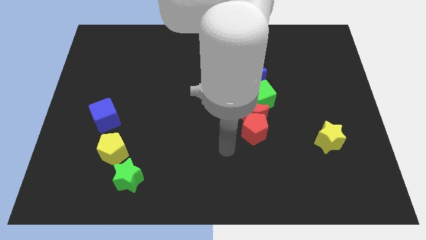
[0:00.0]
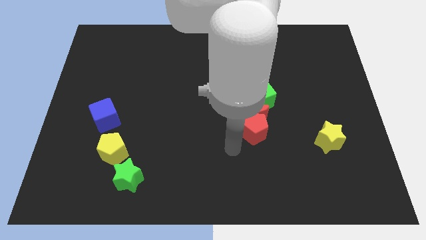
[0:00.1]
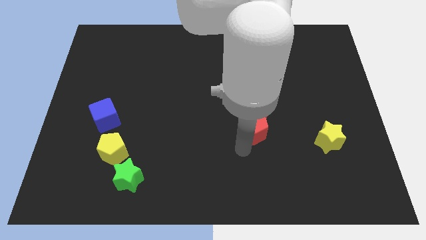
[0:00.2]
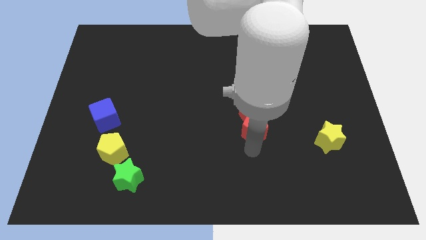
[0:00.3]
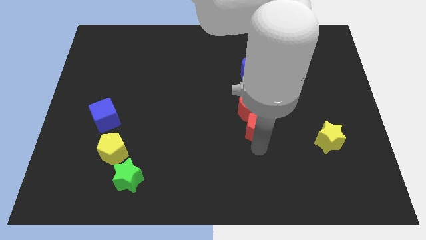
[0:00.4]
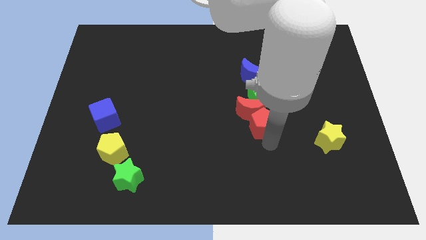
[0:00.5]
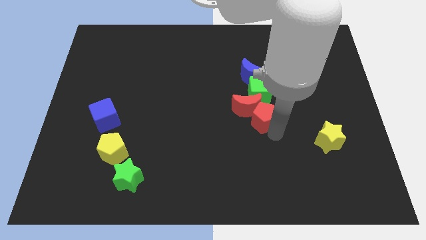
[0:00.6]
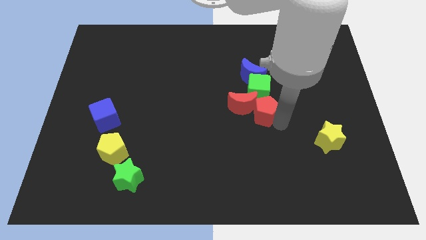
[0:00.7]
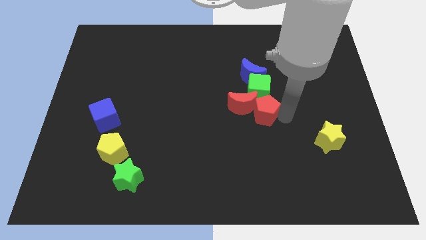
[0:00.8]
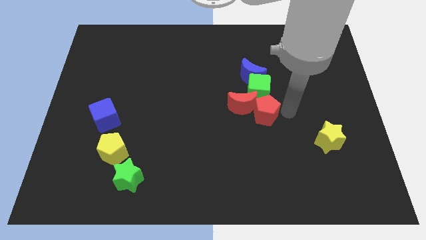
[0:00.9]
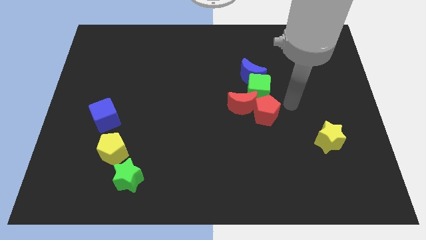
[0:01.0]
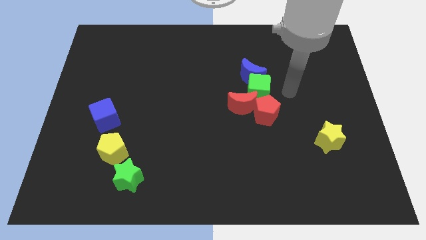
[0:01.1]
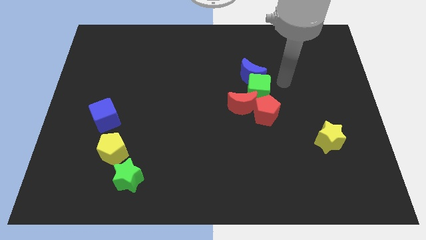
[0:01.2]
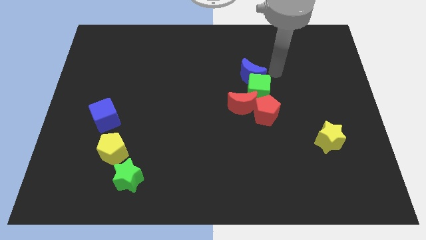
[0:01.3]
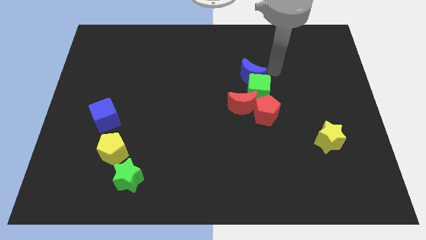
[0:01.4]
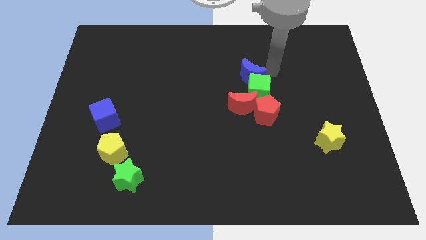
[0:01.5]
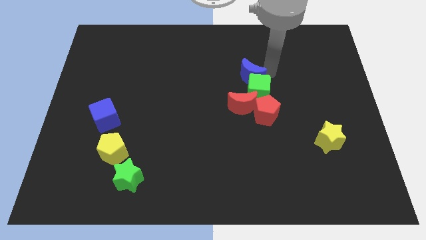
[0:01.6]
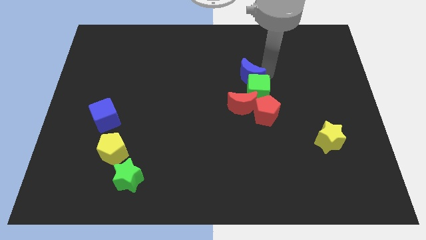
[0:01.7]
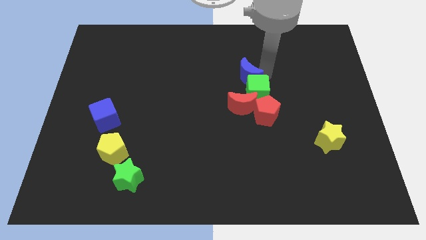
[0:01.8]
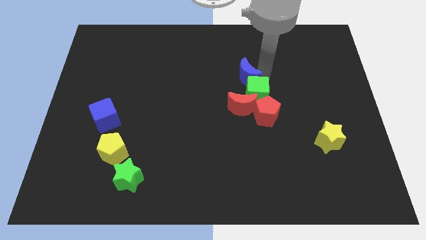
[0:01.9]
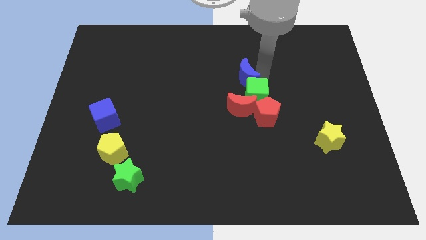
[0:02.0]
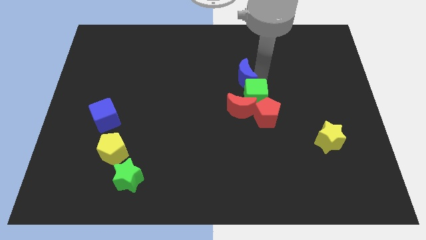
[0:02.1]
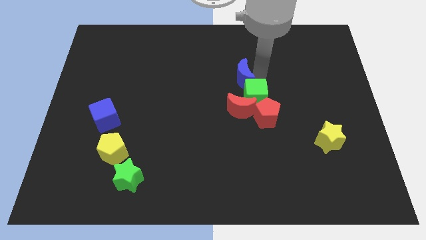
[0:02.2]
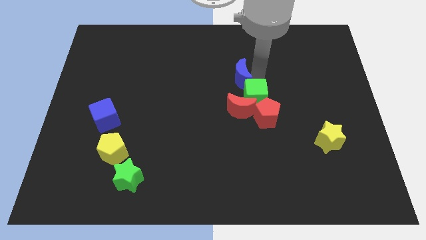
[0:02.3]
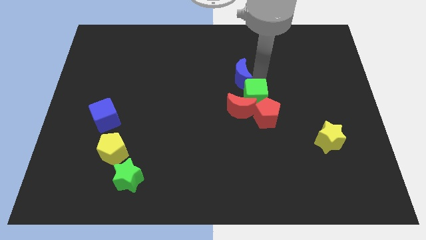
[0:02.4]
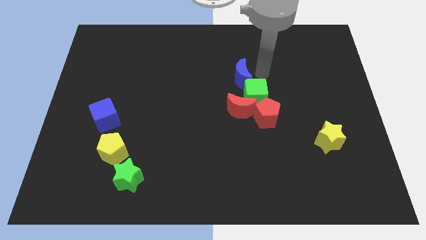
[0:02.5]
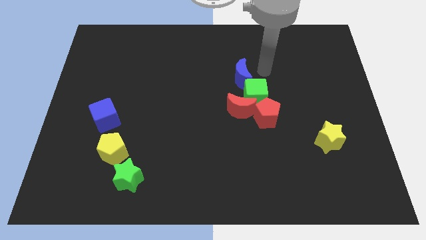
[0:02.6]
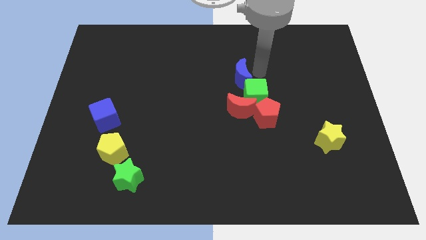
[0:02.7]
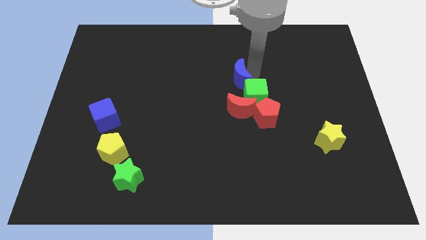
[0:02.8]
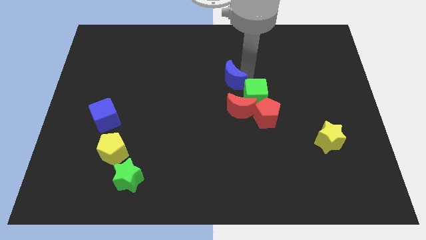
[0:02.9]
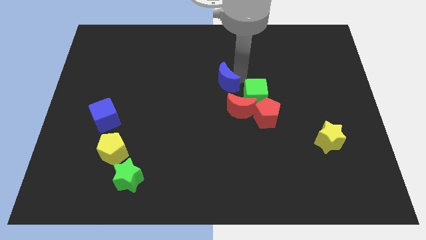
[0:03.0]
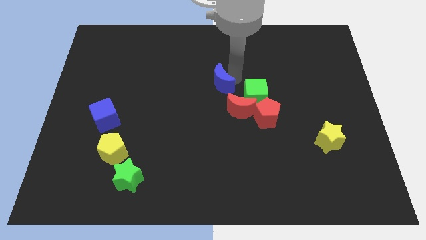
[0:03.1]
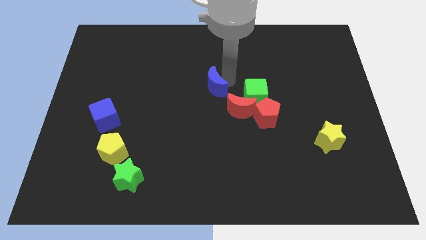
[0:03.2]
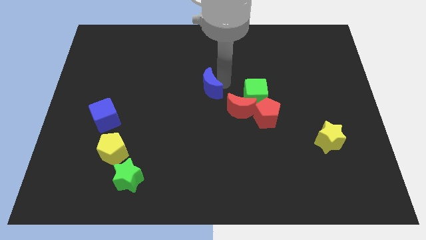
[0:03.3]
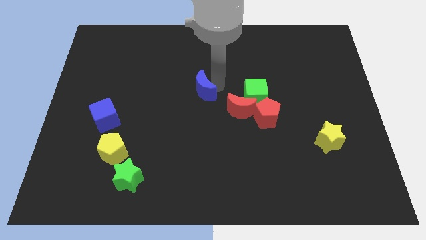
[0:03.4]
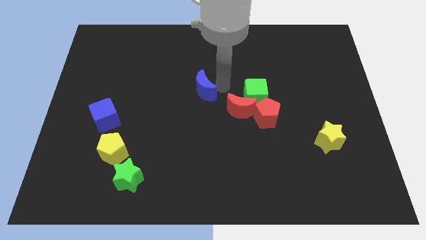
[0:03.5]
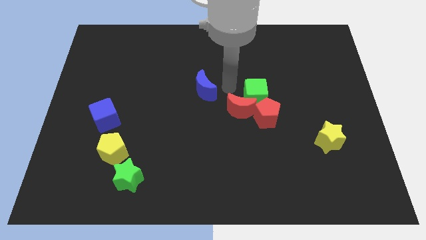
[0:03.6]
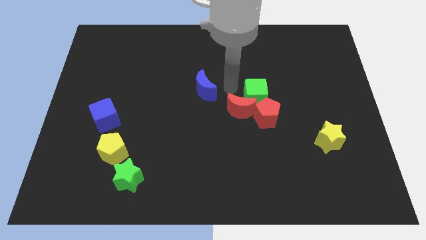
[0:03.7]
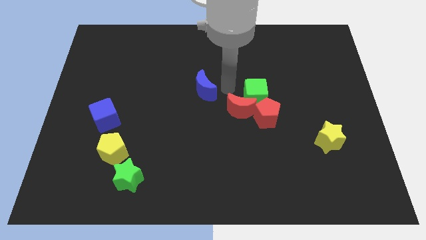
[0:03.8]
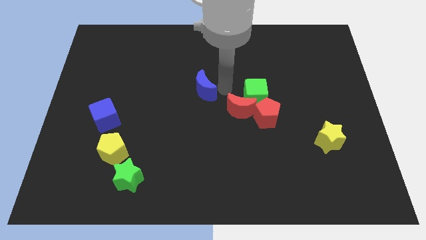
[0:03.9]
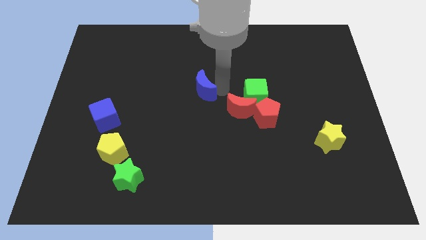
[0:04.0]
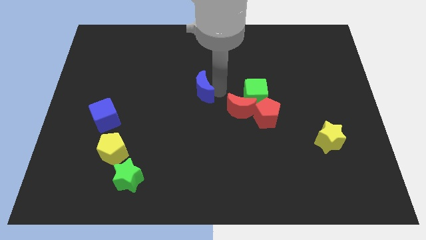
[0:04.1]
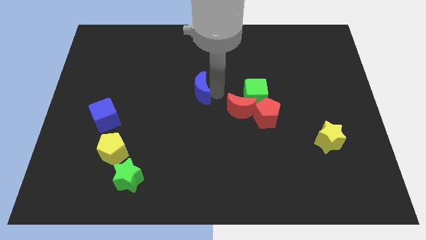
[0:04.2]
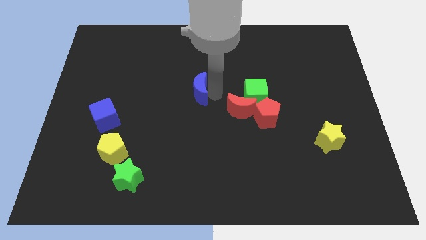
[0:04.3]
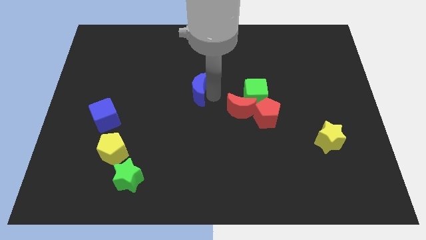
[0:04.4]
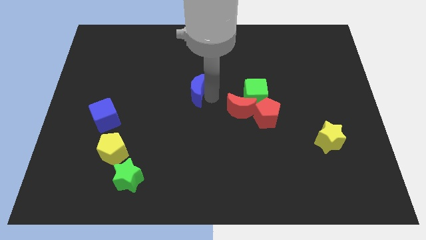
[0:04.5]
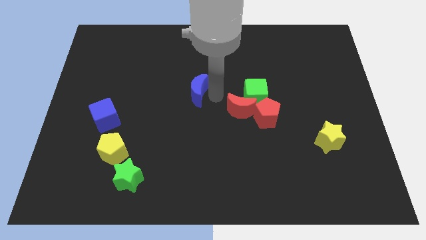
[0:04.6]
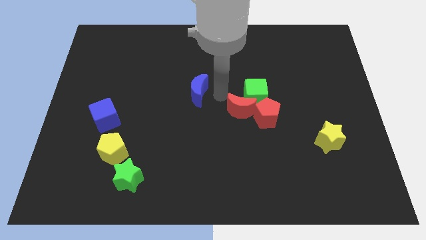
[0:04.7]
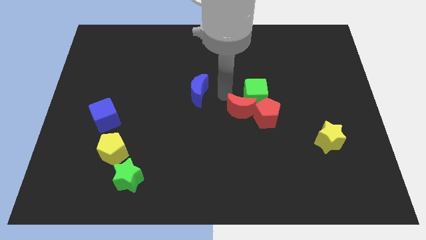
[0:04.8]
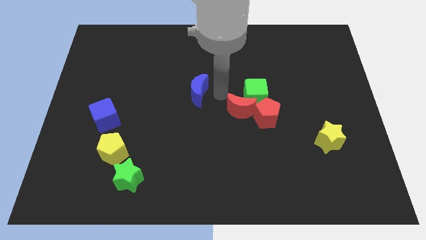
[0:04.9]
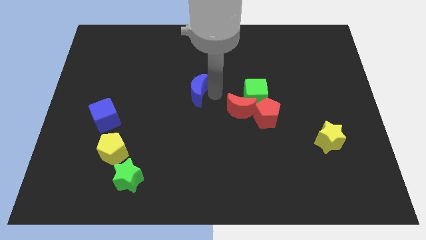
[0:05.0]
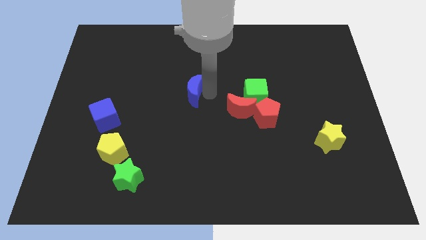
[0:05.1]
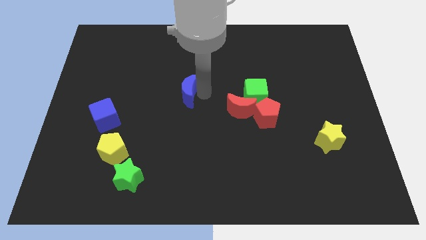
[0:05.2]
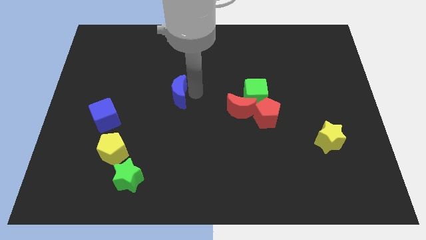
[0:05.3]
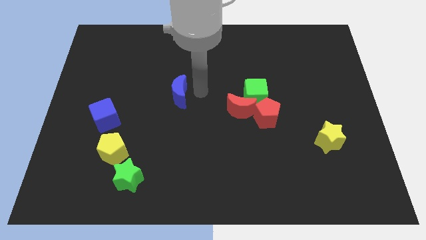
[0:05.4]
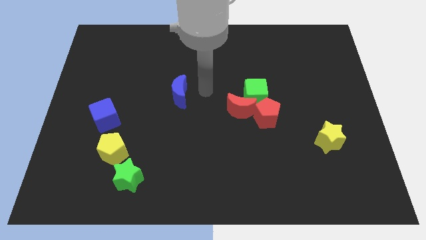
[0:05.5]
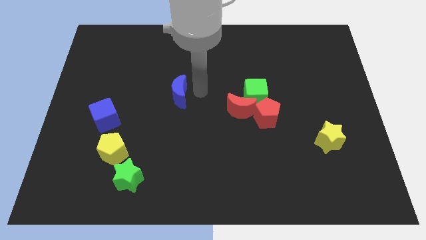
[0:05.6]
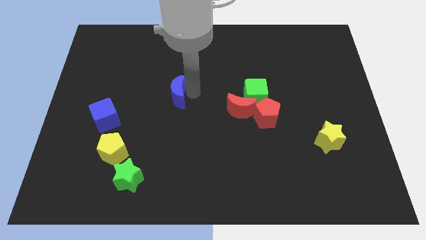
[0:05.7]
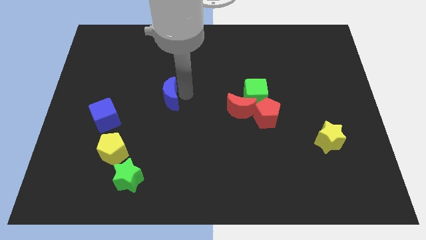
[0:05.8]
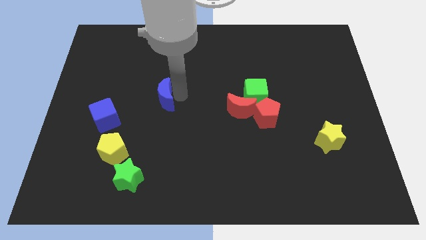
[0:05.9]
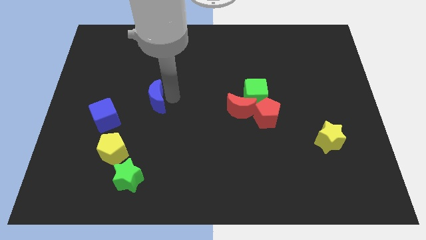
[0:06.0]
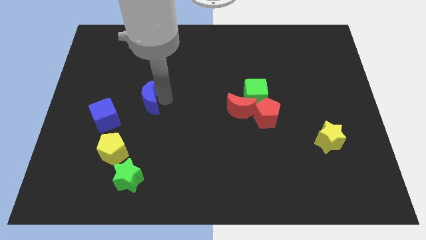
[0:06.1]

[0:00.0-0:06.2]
slide the blue moon to the top right side of the blue cube
